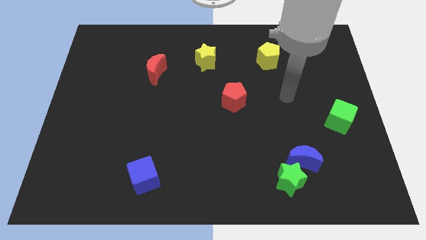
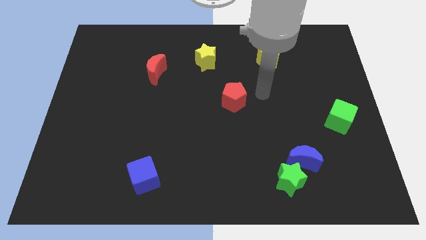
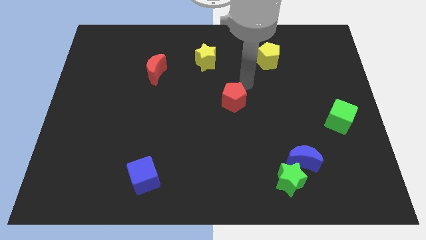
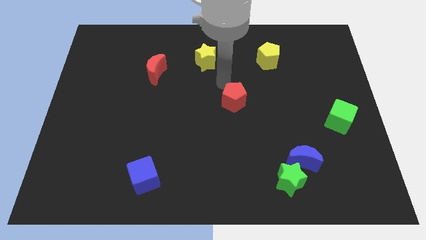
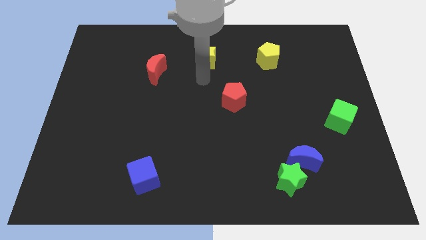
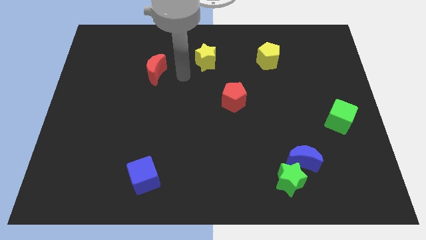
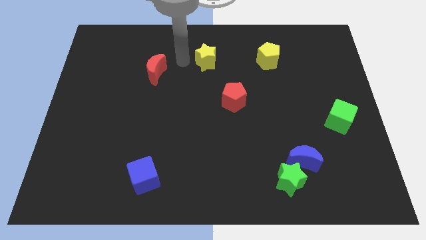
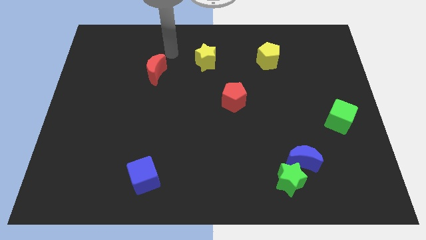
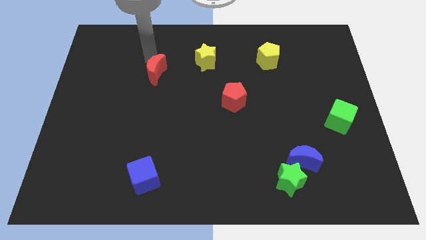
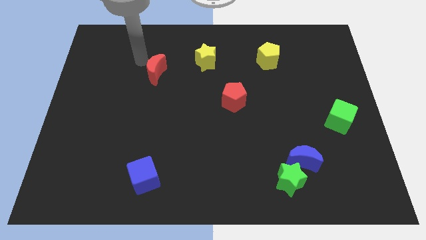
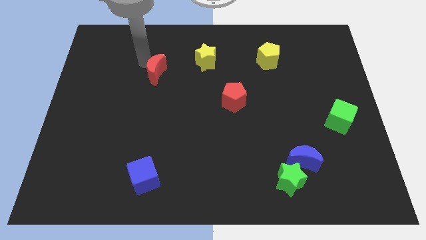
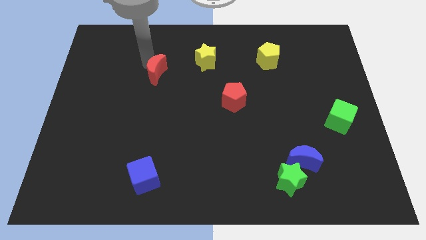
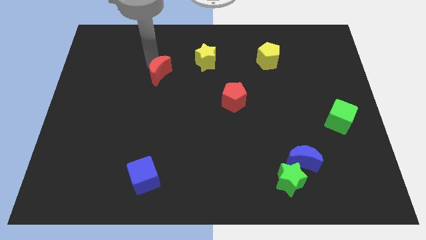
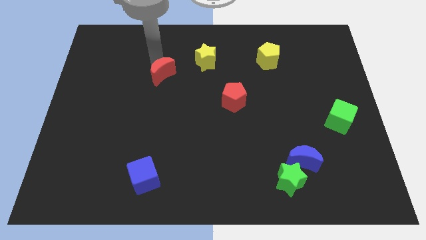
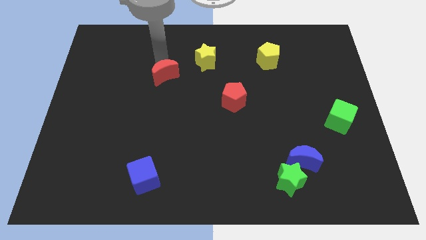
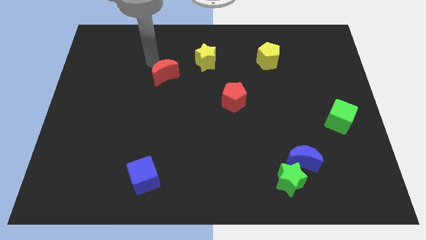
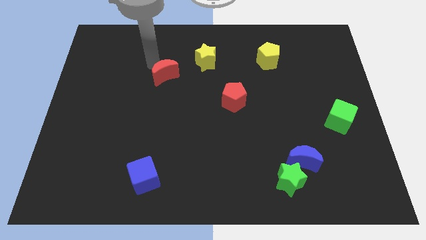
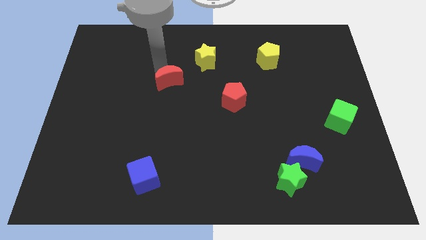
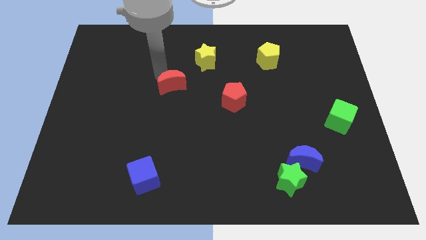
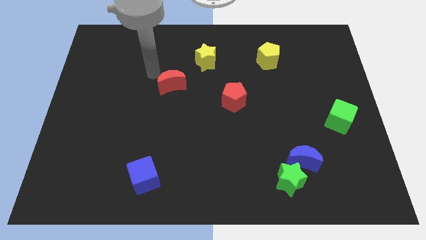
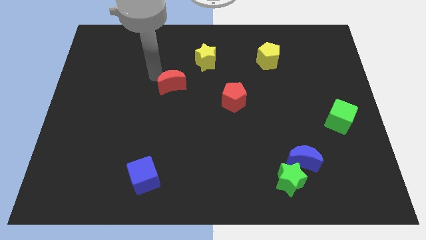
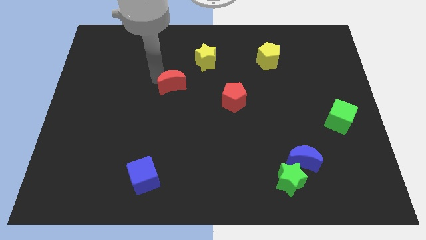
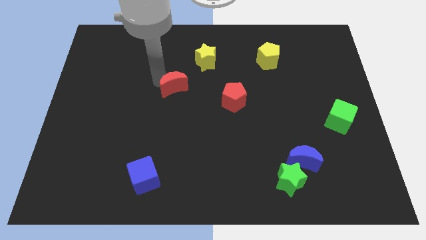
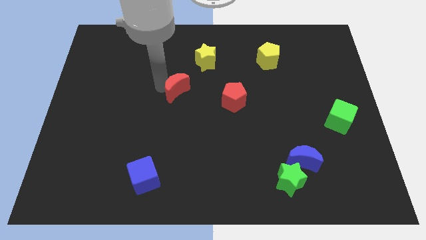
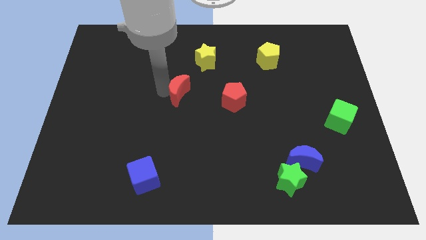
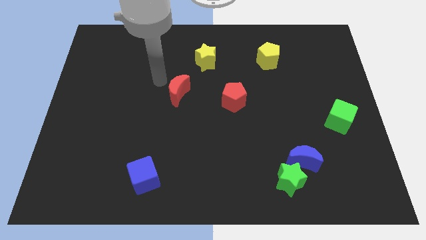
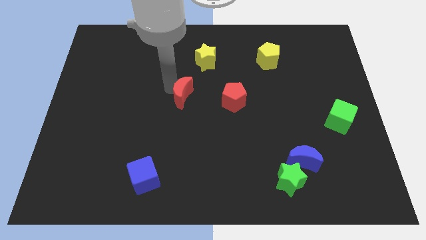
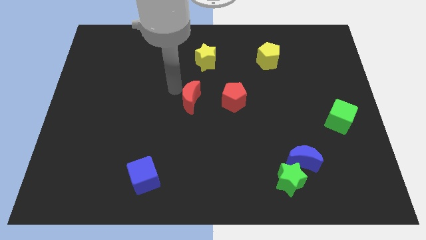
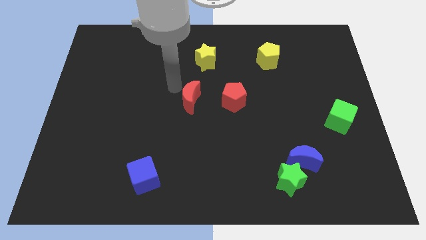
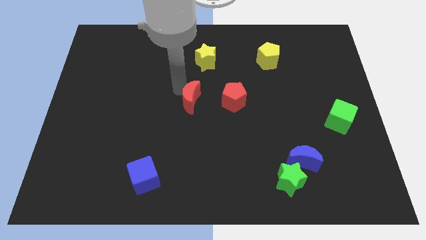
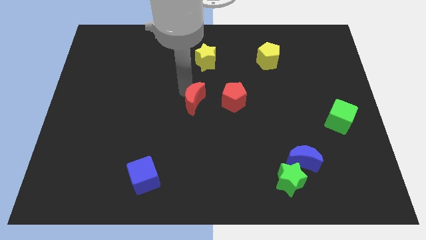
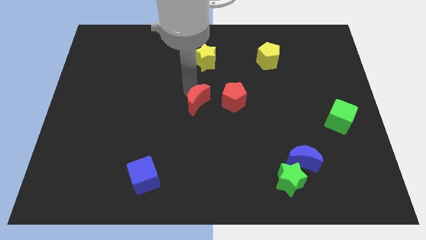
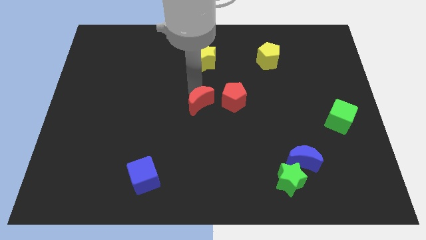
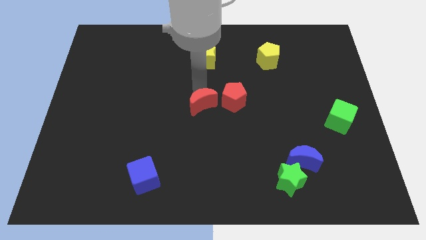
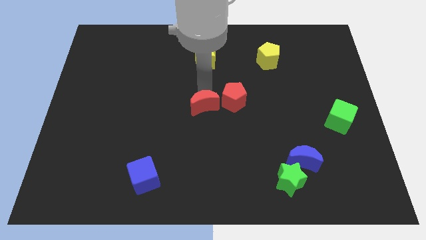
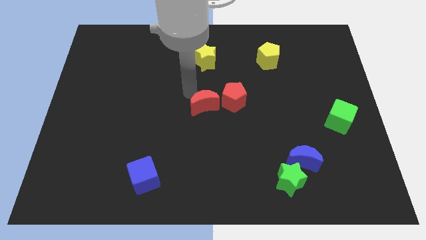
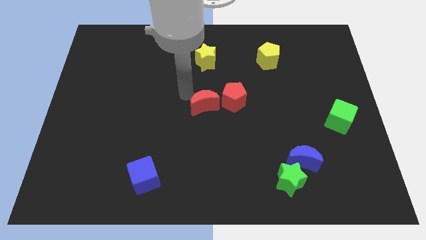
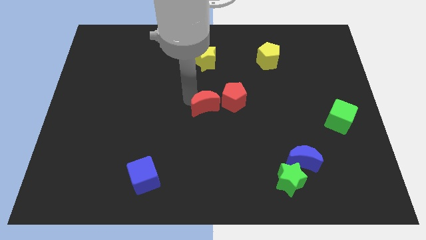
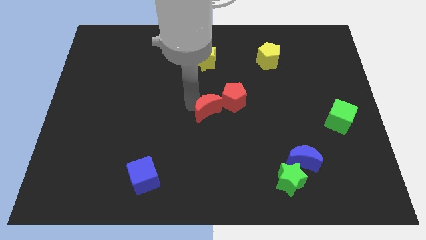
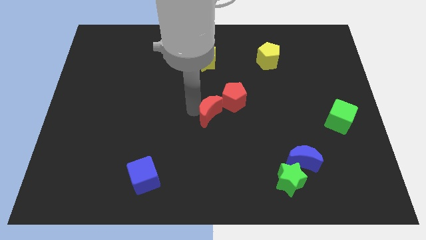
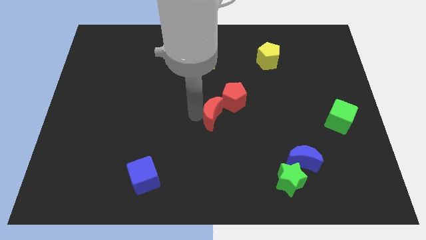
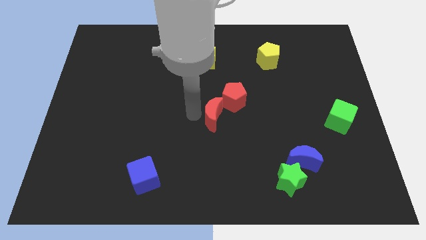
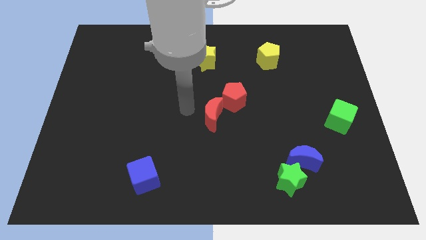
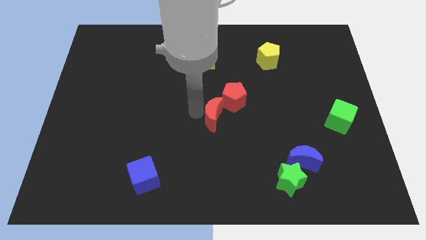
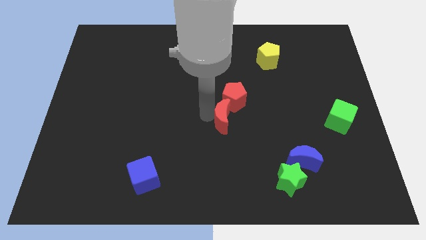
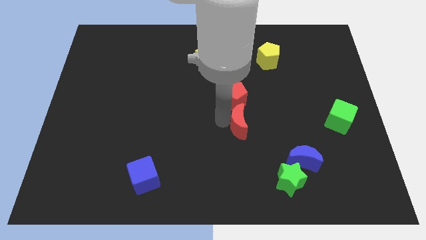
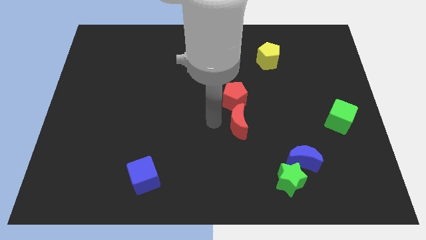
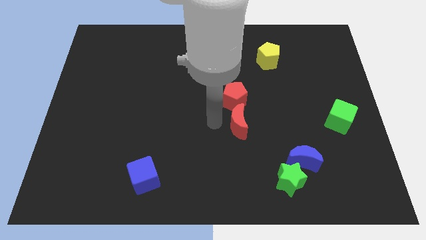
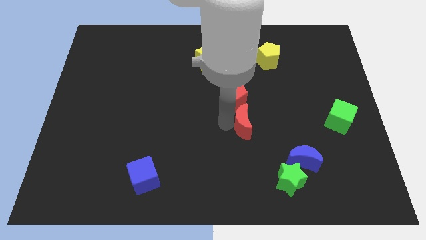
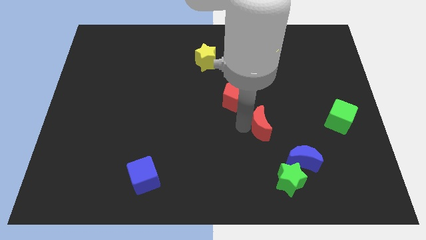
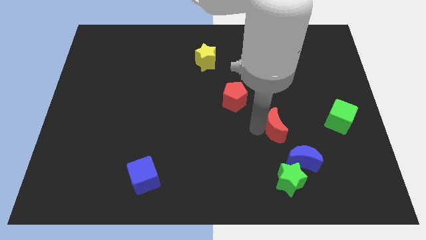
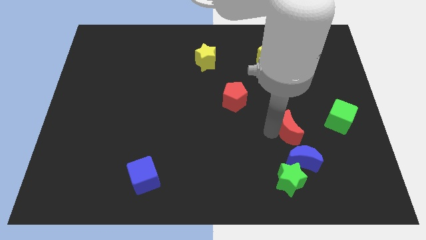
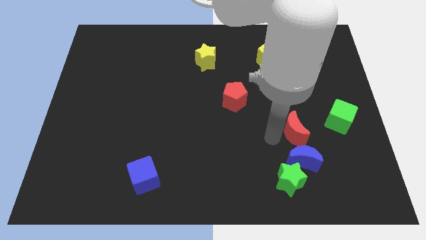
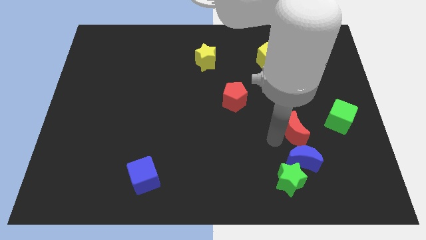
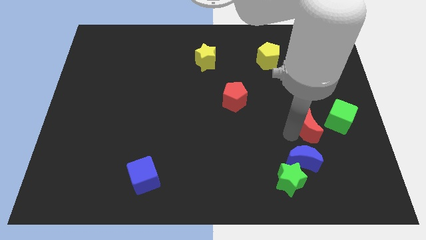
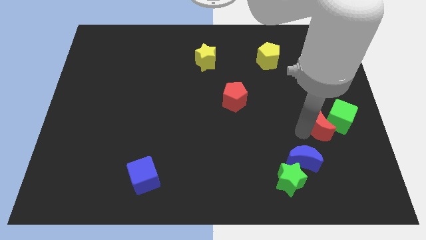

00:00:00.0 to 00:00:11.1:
move the red moon next to the green cube

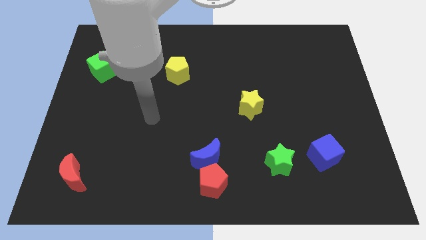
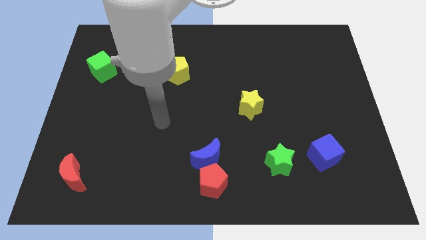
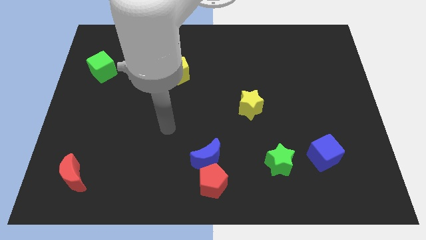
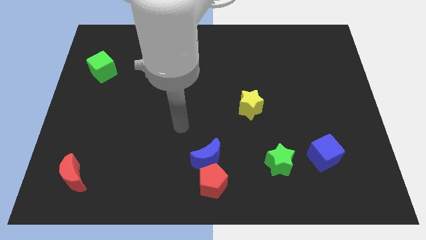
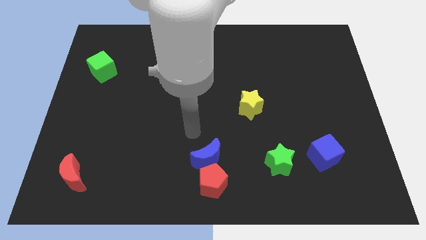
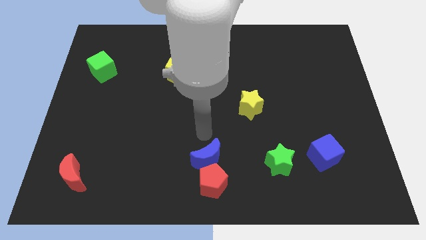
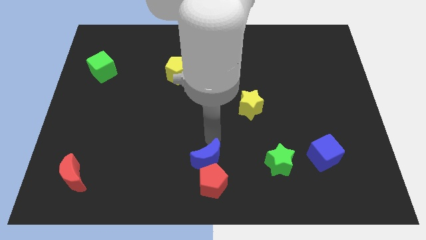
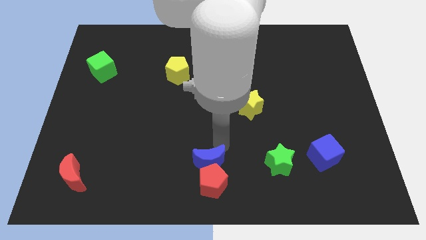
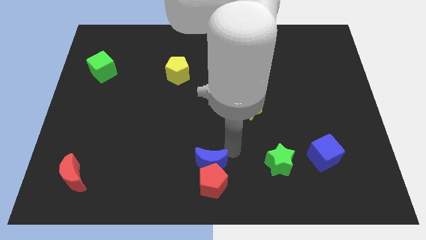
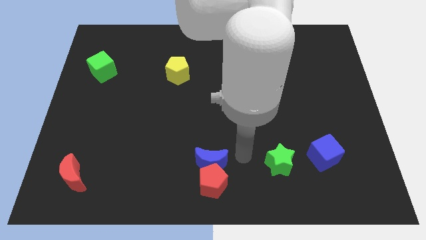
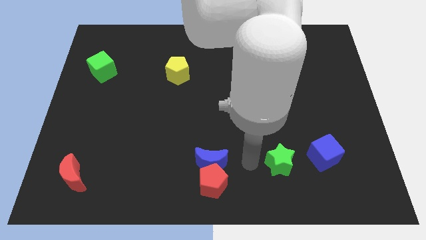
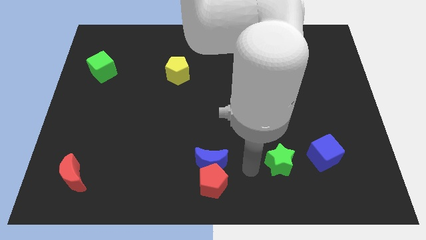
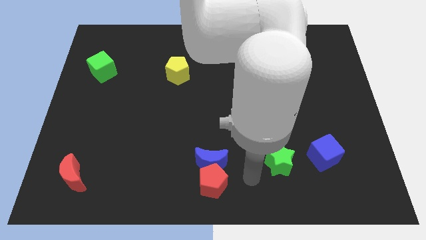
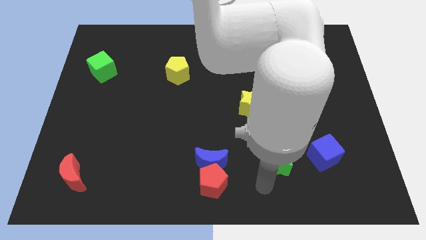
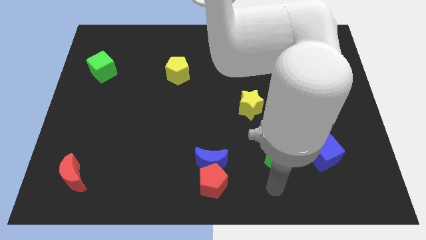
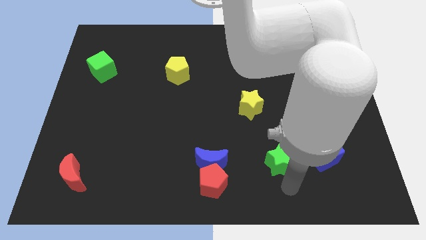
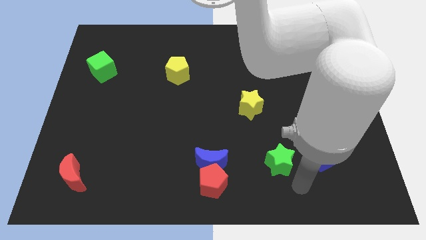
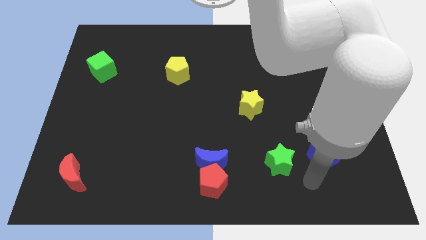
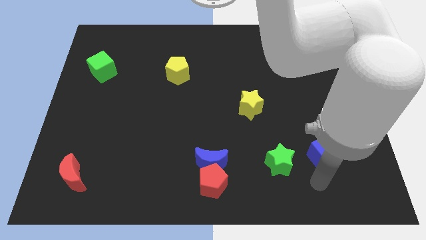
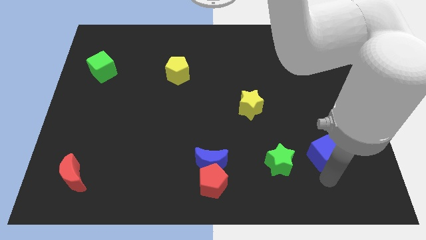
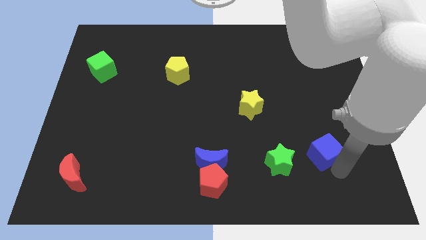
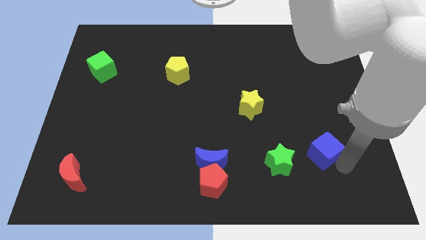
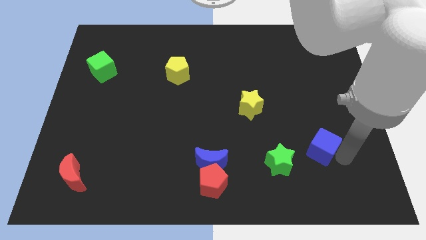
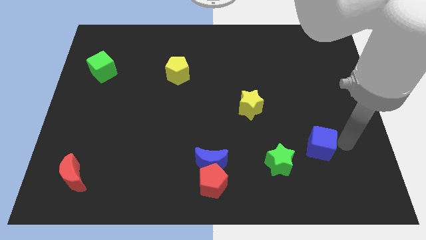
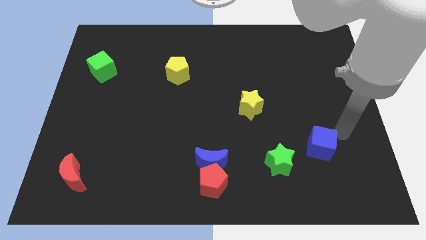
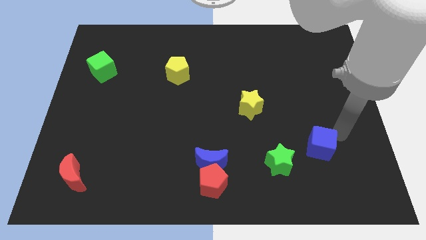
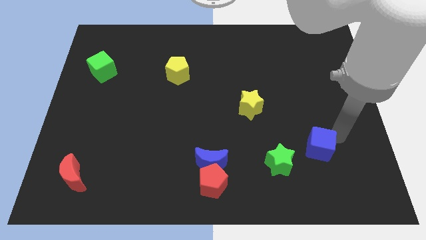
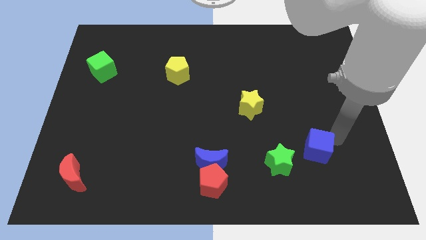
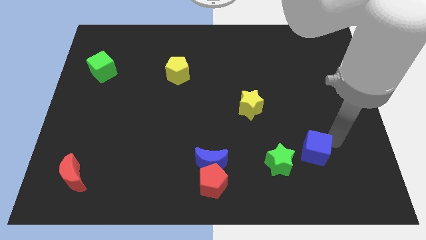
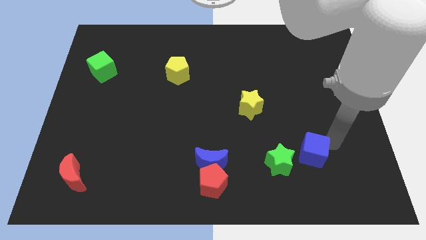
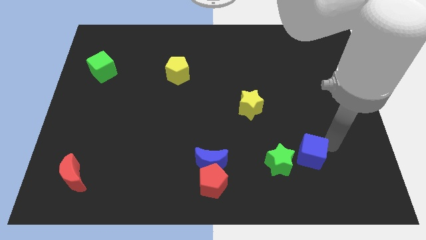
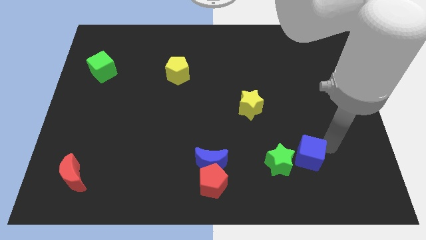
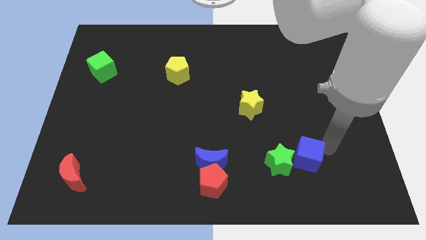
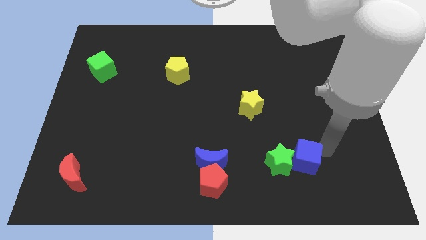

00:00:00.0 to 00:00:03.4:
move the blue cube towards the green star
